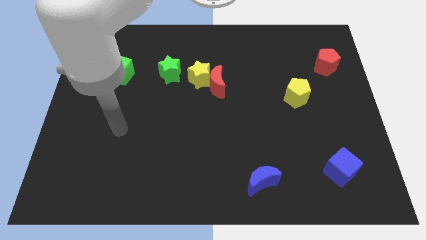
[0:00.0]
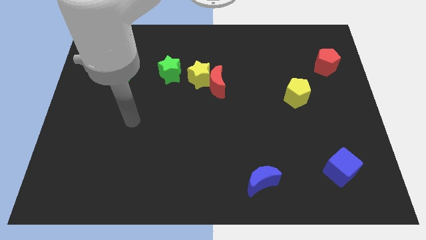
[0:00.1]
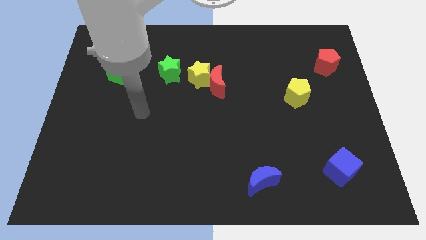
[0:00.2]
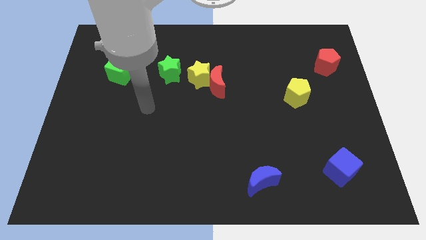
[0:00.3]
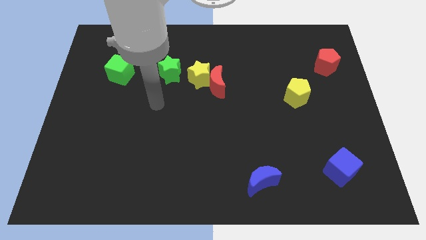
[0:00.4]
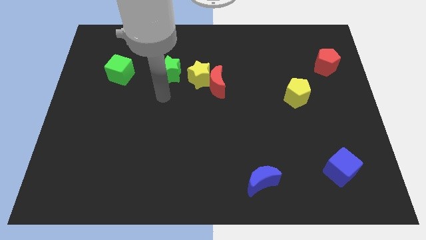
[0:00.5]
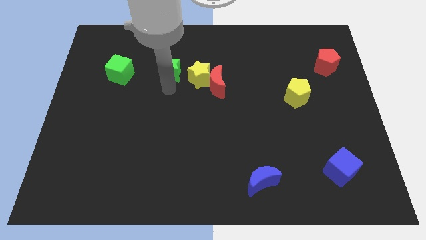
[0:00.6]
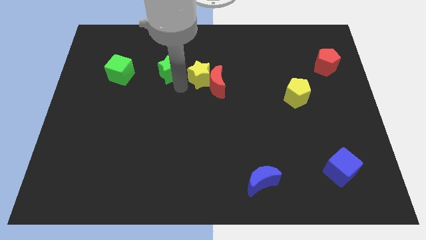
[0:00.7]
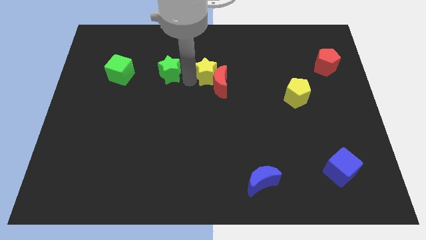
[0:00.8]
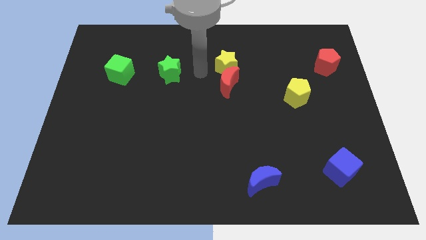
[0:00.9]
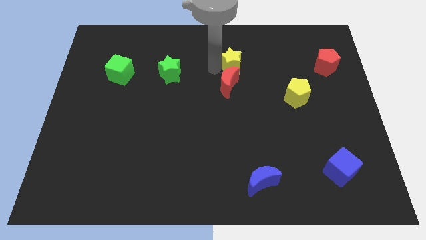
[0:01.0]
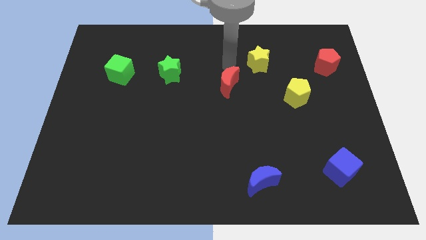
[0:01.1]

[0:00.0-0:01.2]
separate the red moon from the yellow star

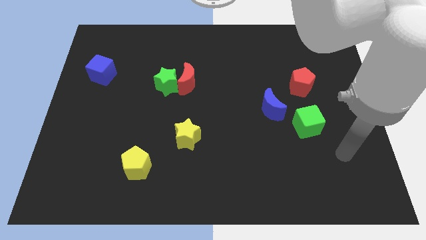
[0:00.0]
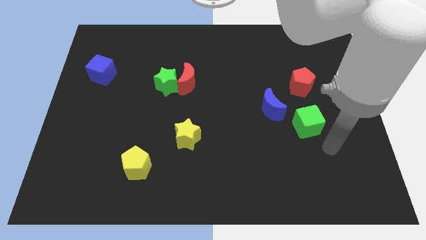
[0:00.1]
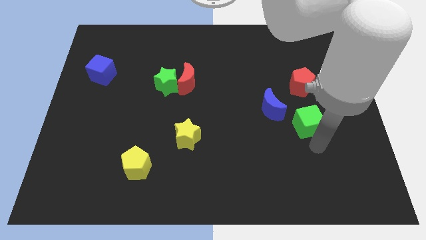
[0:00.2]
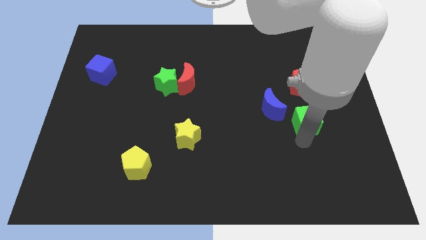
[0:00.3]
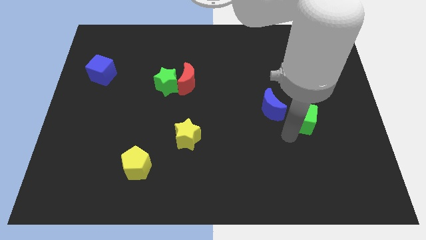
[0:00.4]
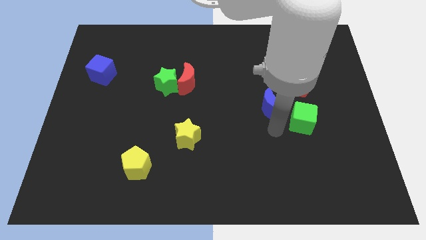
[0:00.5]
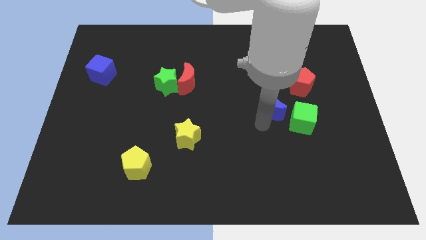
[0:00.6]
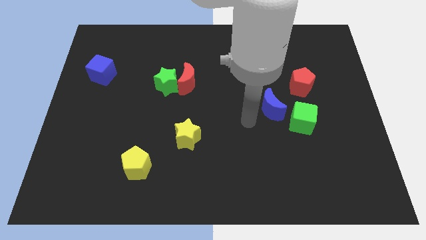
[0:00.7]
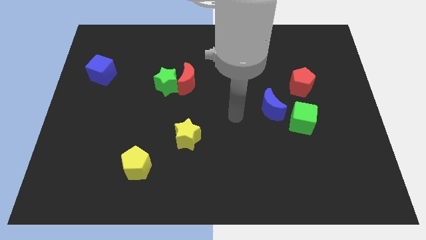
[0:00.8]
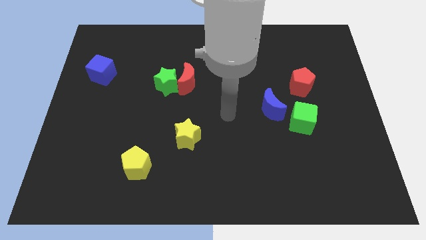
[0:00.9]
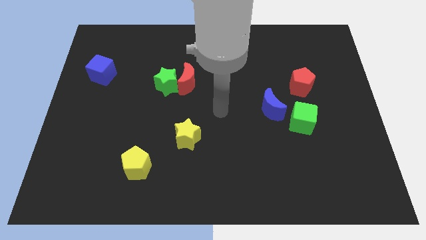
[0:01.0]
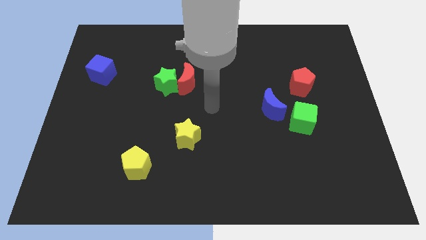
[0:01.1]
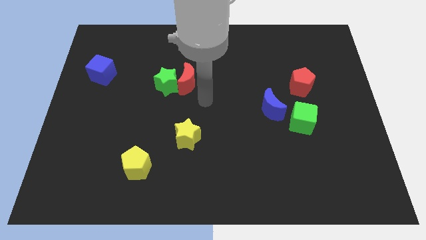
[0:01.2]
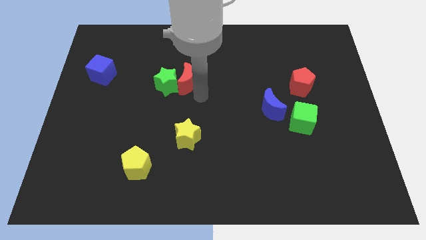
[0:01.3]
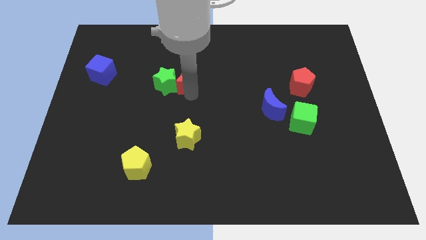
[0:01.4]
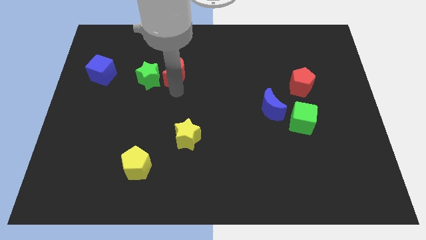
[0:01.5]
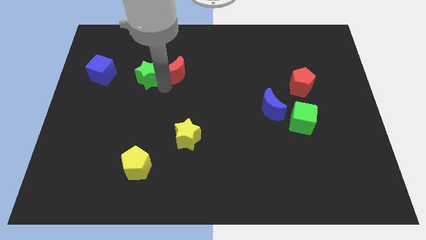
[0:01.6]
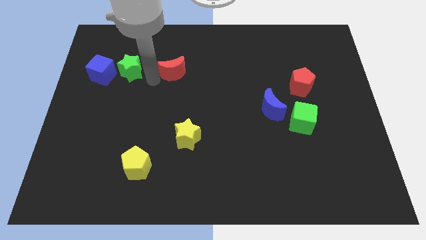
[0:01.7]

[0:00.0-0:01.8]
pull the red moon apart from the green star

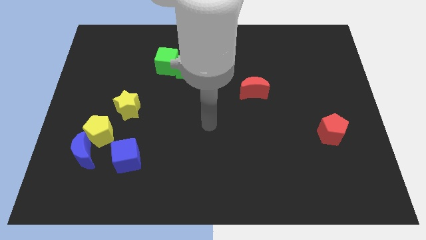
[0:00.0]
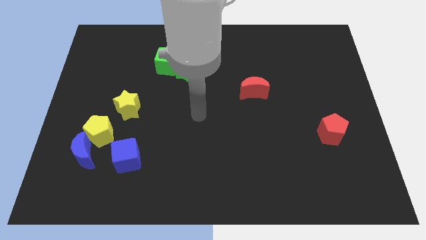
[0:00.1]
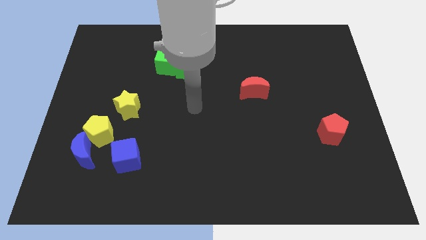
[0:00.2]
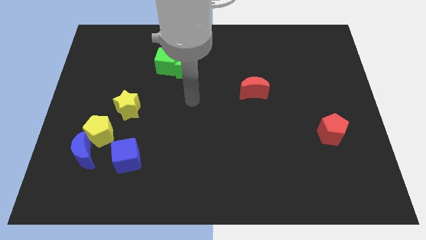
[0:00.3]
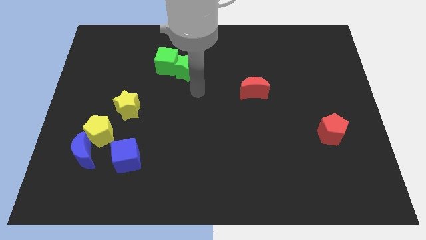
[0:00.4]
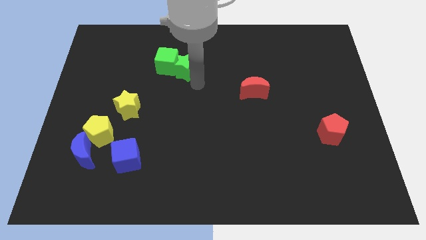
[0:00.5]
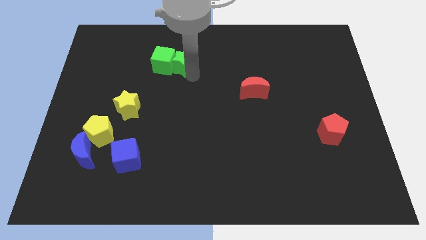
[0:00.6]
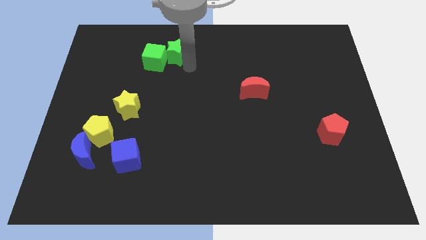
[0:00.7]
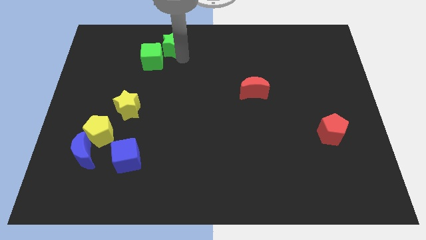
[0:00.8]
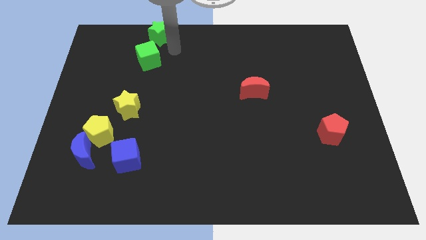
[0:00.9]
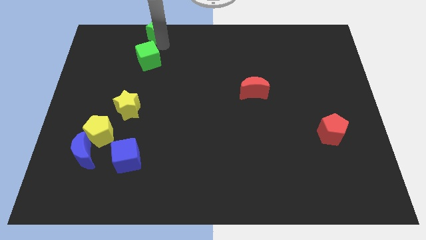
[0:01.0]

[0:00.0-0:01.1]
separate the green cube from the green star

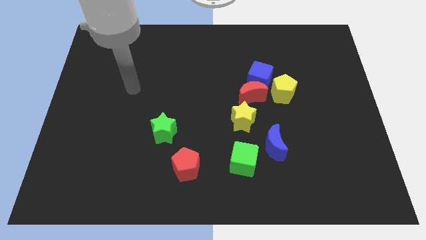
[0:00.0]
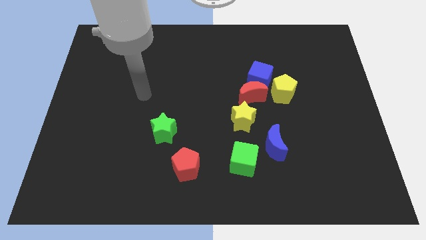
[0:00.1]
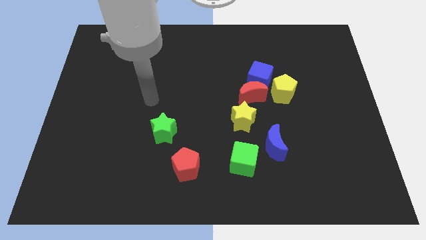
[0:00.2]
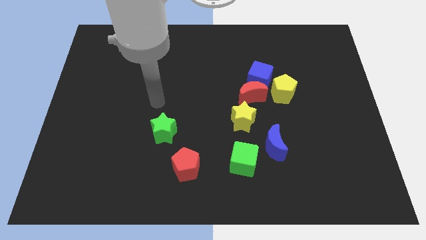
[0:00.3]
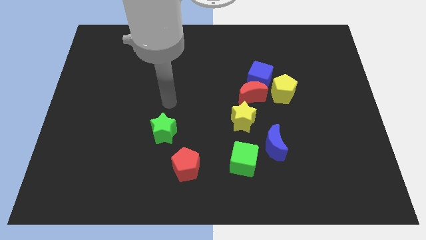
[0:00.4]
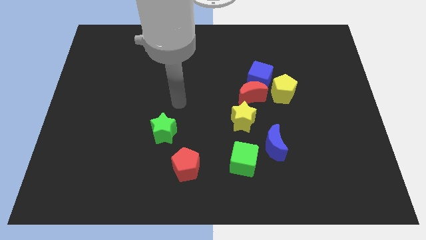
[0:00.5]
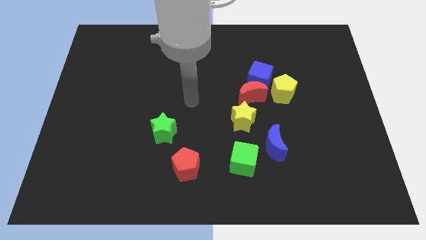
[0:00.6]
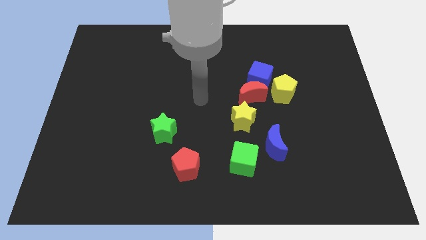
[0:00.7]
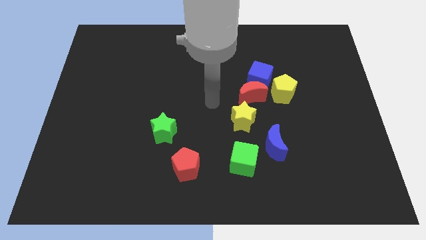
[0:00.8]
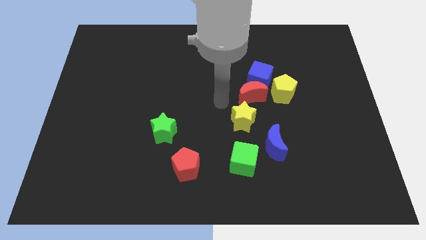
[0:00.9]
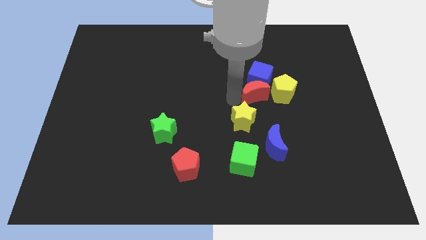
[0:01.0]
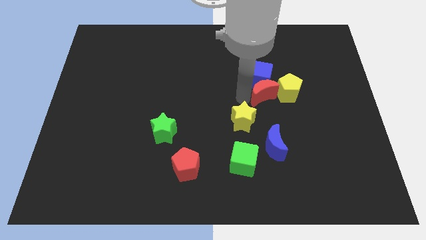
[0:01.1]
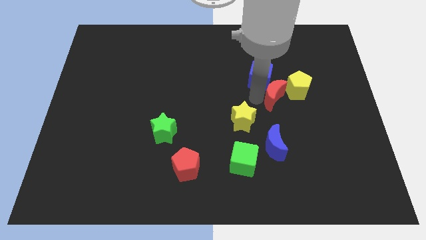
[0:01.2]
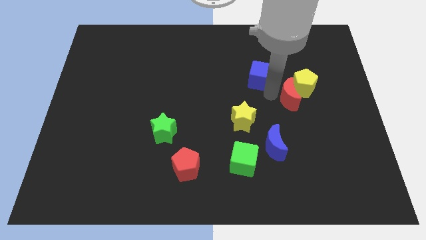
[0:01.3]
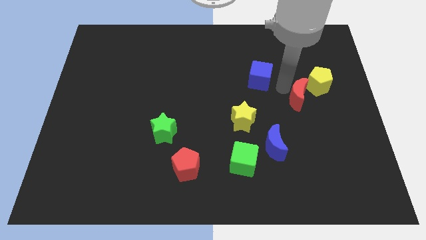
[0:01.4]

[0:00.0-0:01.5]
move the blue cube away from the red moon and yellow pentagon

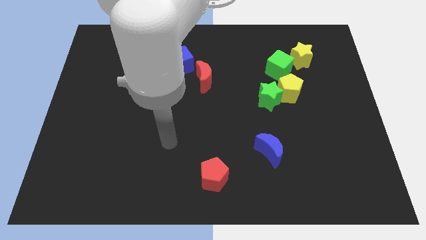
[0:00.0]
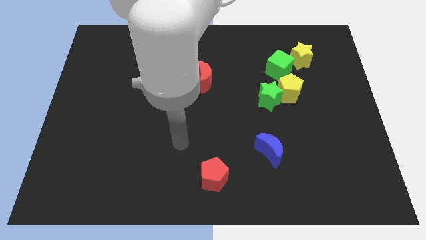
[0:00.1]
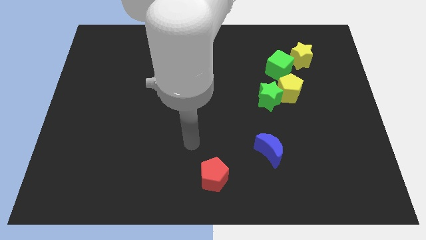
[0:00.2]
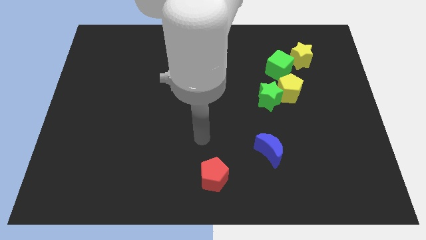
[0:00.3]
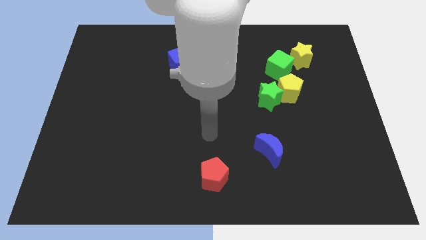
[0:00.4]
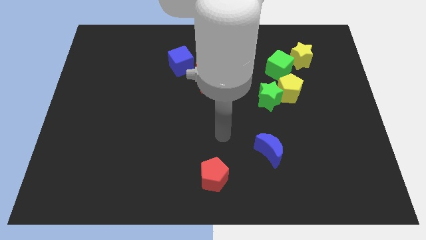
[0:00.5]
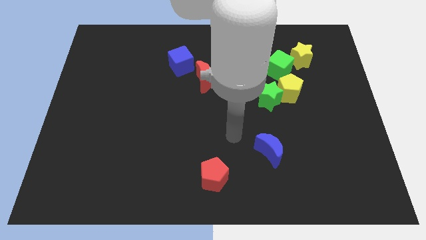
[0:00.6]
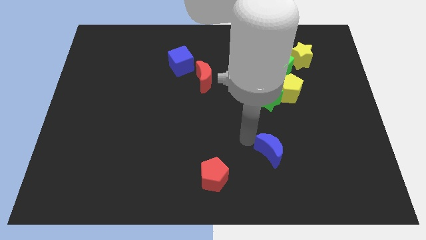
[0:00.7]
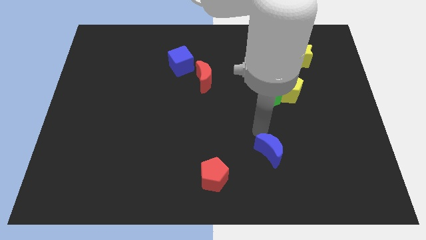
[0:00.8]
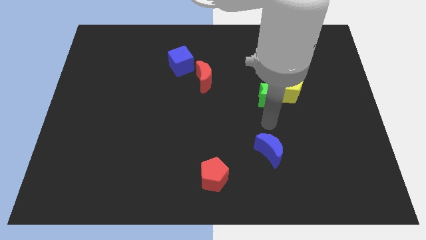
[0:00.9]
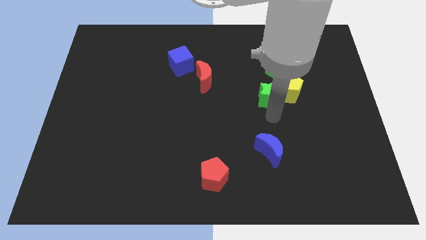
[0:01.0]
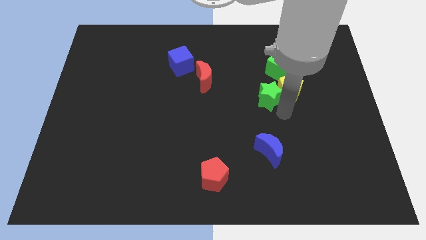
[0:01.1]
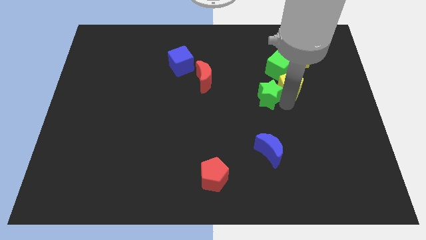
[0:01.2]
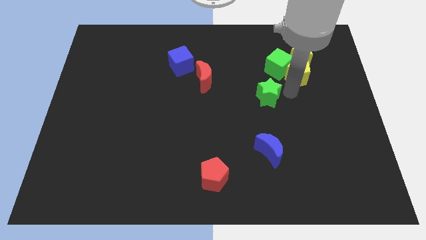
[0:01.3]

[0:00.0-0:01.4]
pull the green star apart from the yellow pentagon

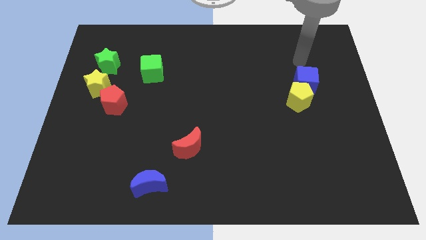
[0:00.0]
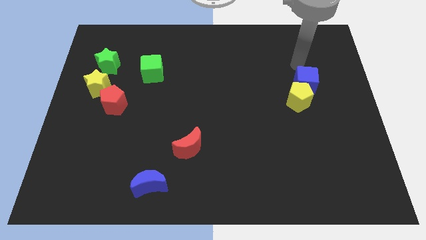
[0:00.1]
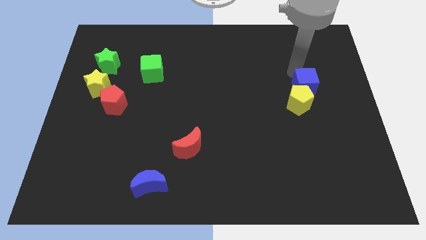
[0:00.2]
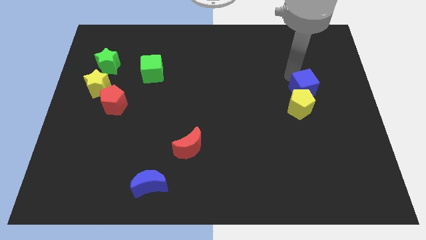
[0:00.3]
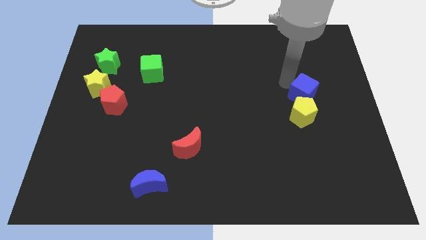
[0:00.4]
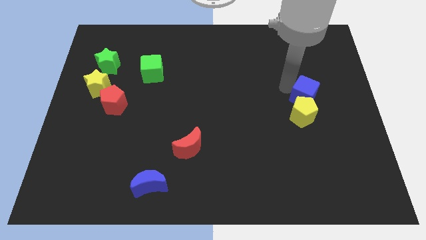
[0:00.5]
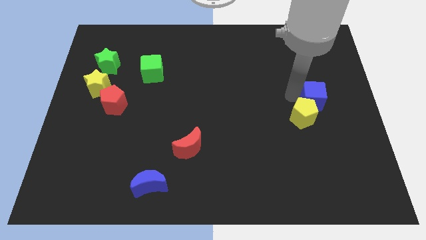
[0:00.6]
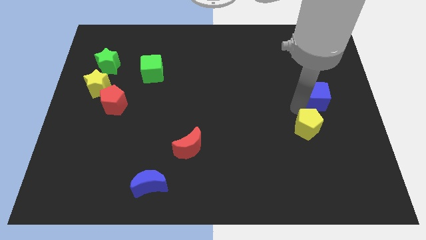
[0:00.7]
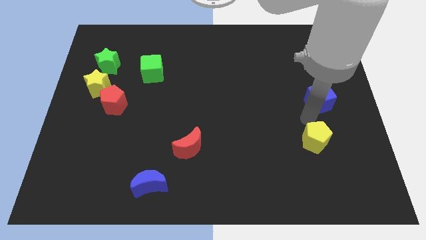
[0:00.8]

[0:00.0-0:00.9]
move the blue cube away from the yellow pentagon

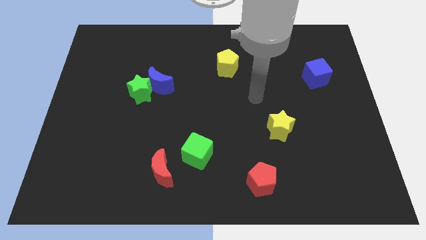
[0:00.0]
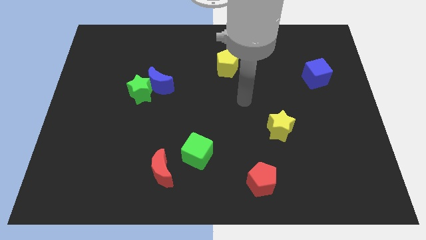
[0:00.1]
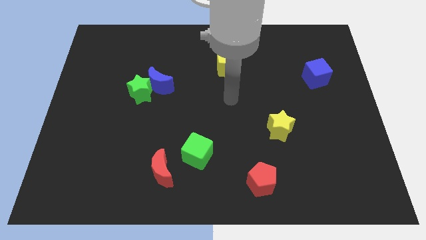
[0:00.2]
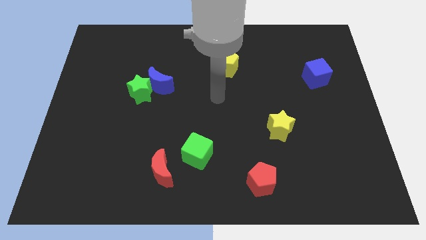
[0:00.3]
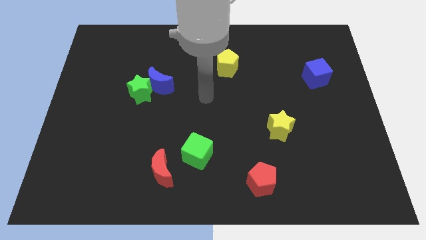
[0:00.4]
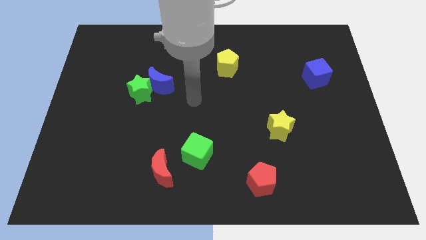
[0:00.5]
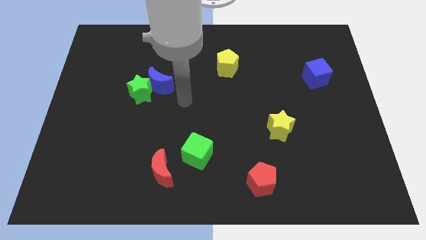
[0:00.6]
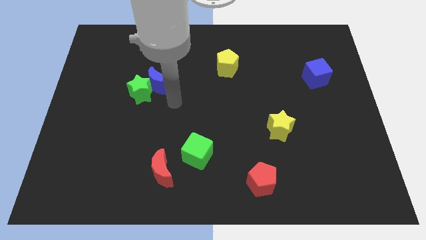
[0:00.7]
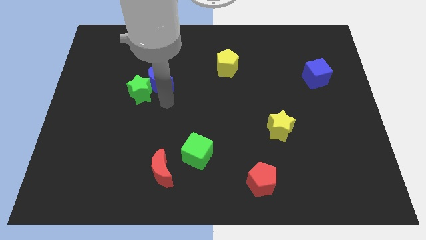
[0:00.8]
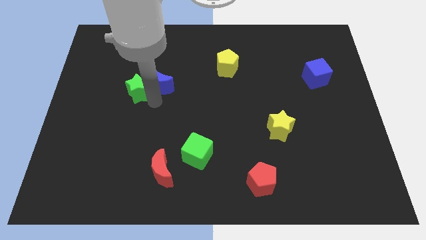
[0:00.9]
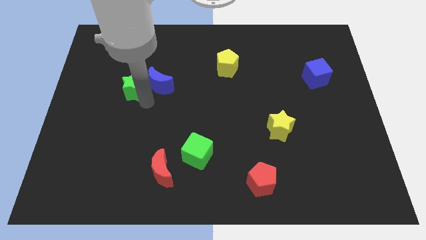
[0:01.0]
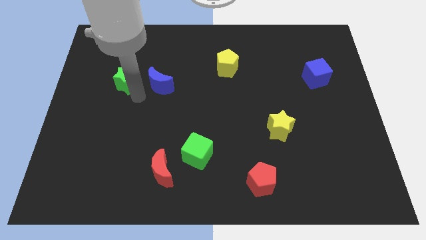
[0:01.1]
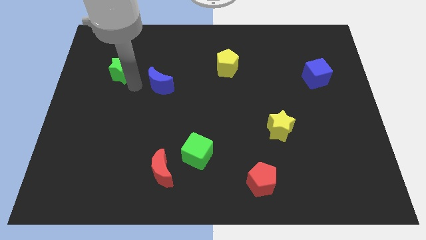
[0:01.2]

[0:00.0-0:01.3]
move the blue moon away from the green star
